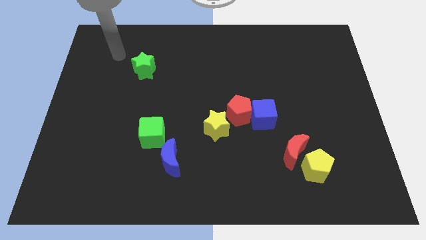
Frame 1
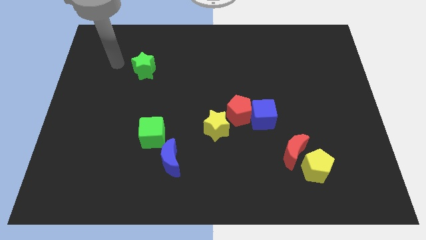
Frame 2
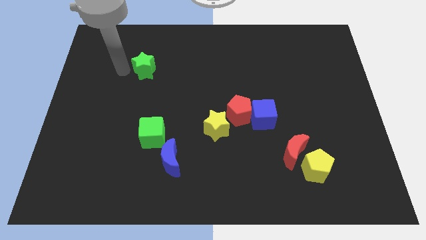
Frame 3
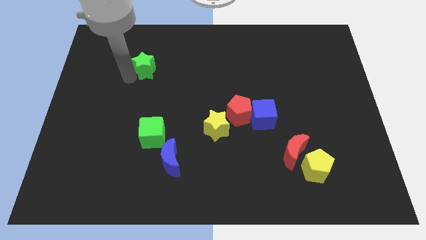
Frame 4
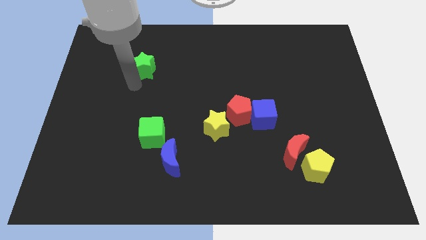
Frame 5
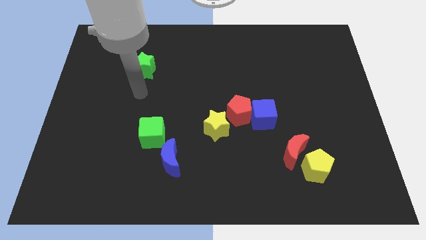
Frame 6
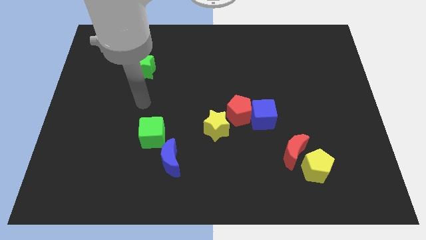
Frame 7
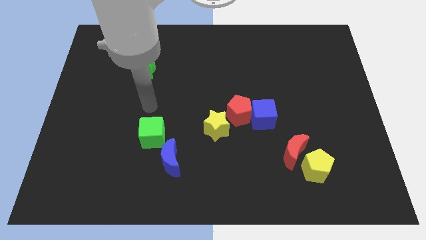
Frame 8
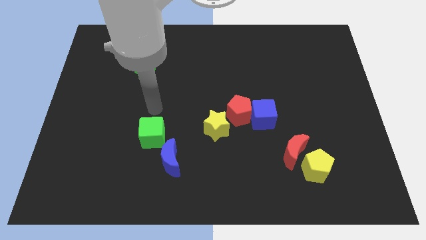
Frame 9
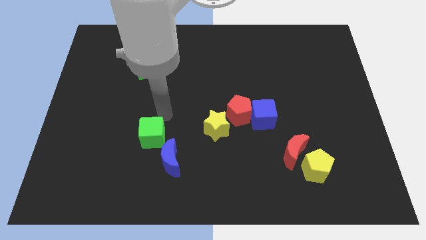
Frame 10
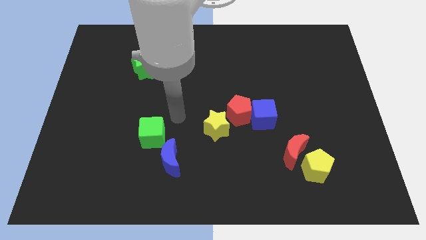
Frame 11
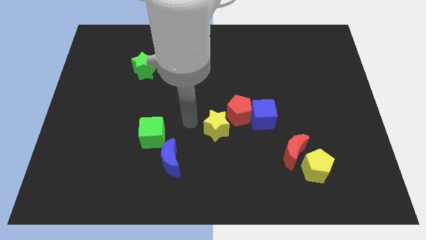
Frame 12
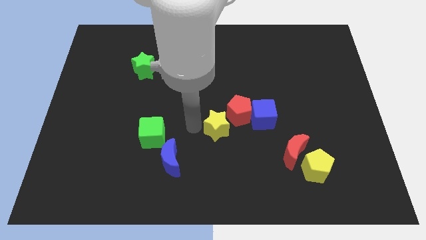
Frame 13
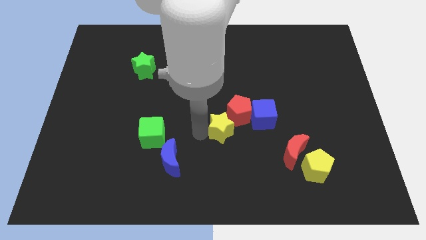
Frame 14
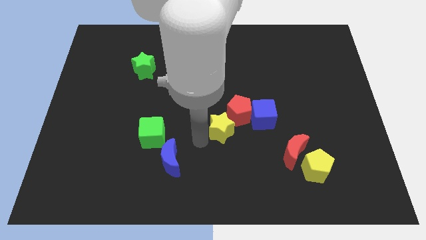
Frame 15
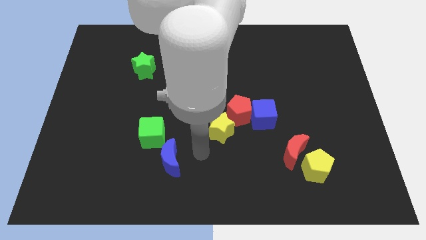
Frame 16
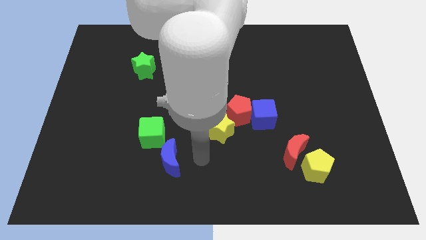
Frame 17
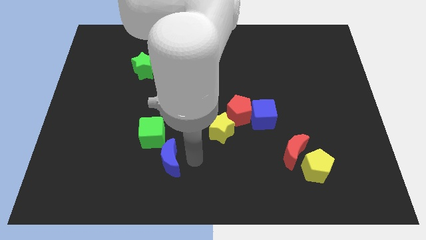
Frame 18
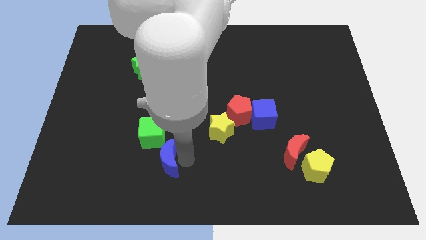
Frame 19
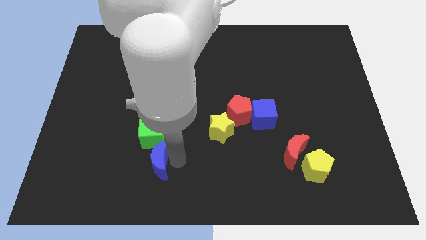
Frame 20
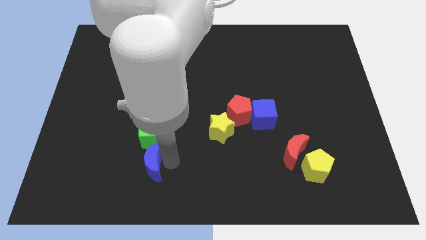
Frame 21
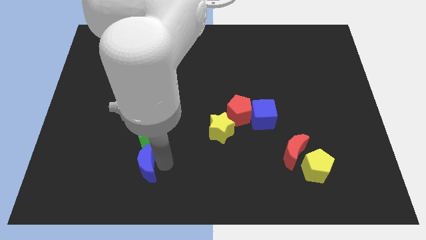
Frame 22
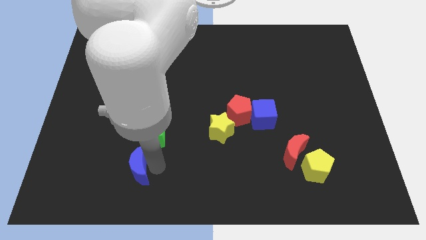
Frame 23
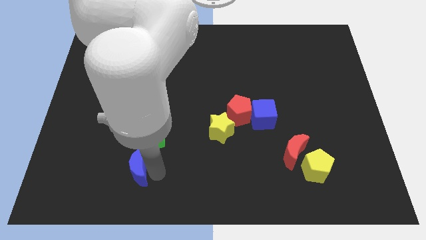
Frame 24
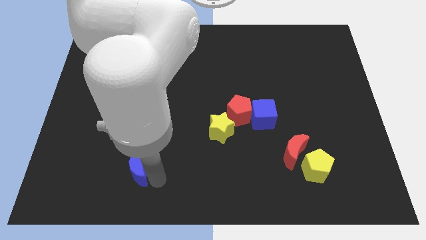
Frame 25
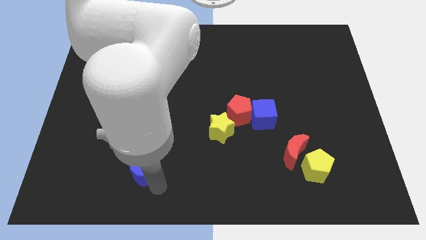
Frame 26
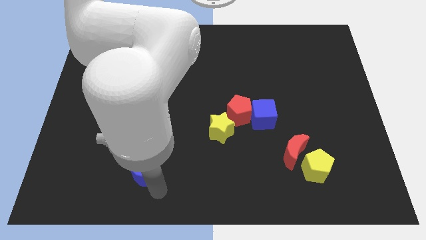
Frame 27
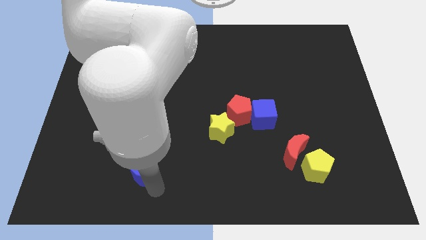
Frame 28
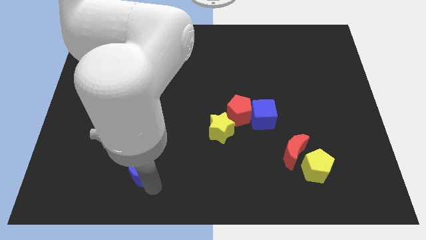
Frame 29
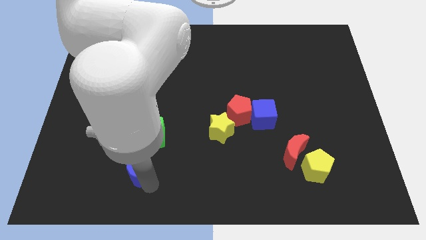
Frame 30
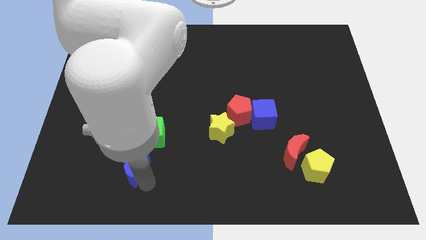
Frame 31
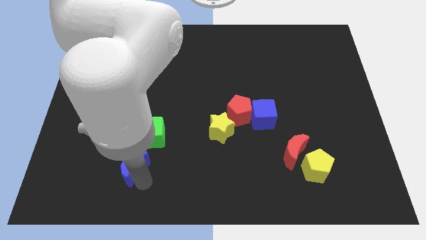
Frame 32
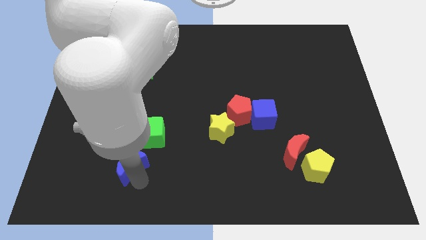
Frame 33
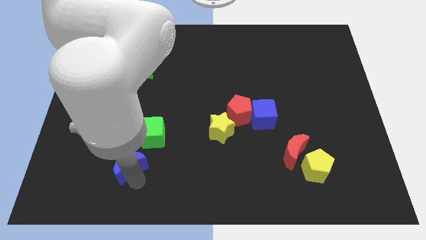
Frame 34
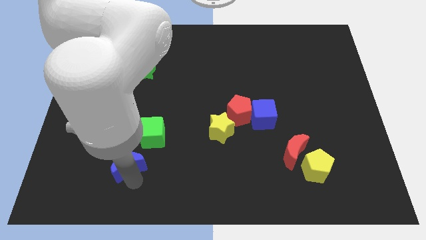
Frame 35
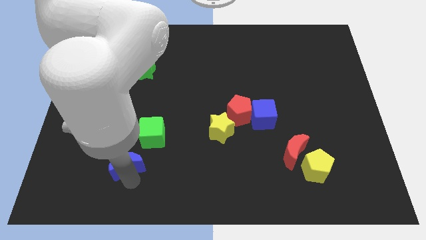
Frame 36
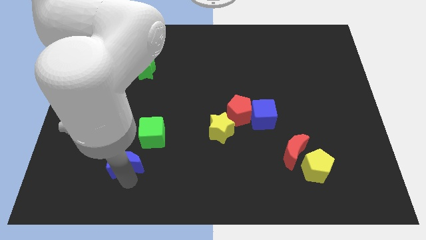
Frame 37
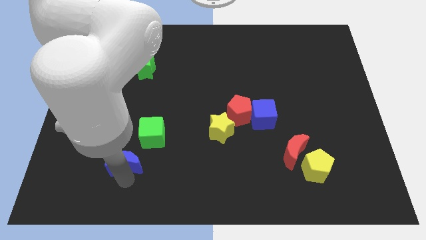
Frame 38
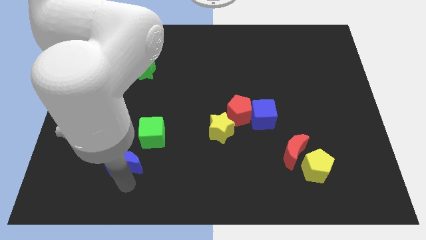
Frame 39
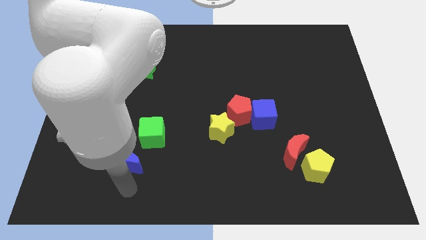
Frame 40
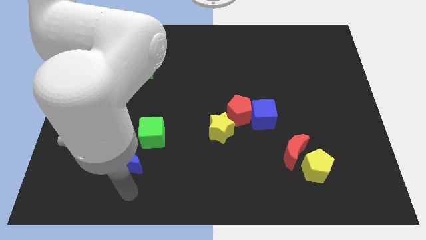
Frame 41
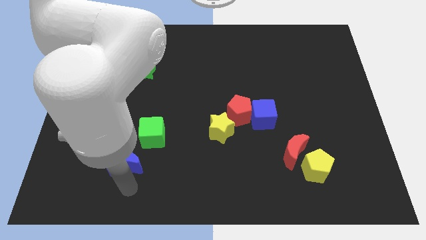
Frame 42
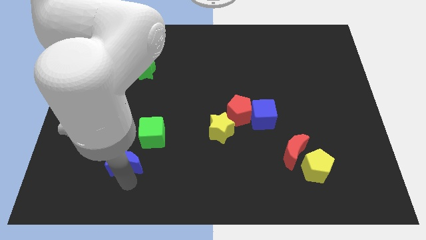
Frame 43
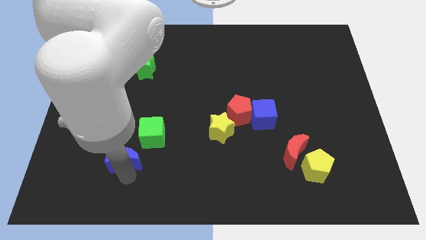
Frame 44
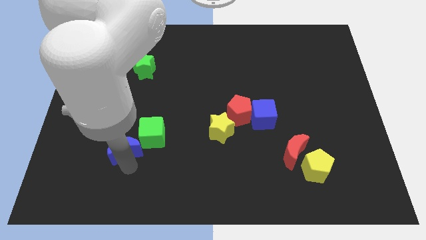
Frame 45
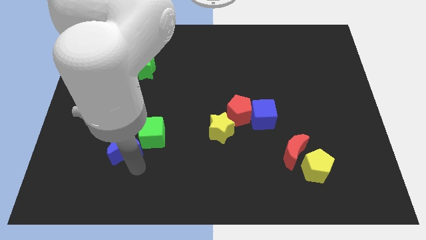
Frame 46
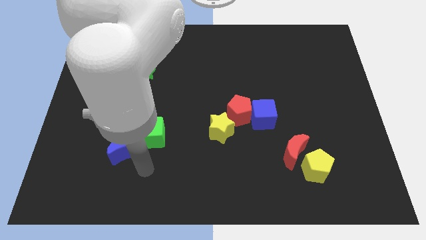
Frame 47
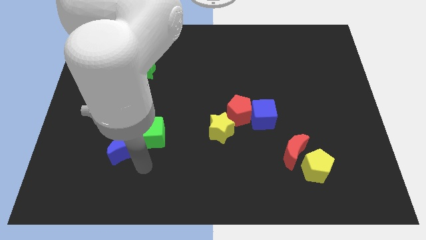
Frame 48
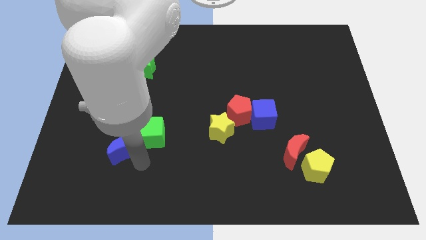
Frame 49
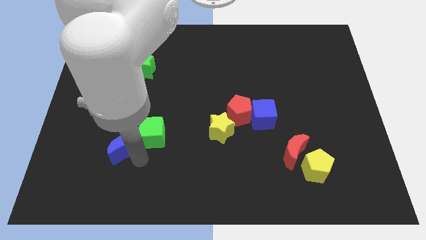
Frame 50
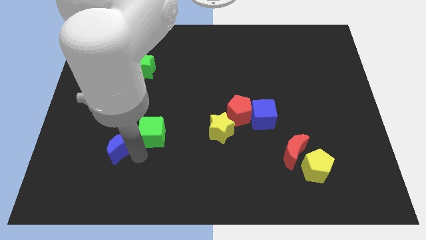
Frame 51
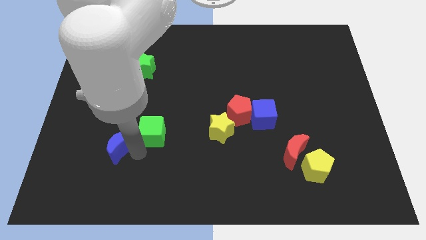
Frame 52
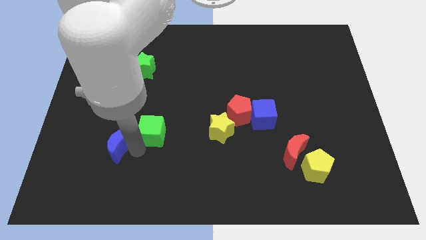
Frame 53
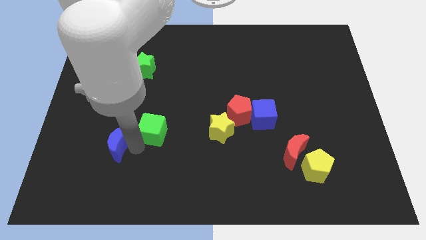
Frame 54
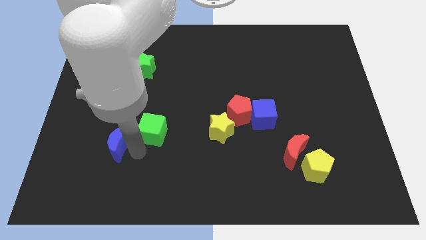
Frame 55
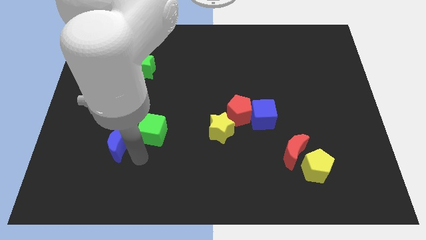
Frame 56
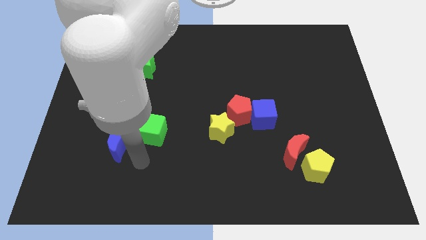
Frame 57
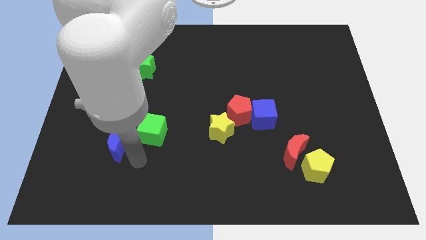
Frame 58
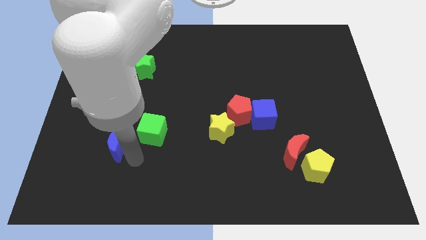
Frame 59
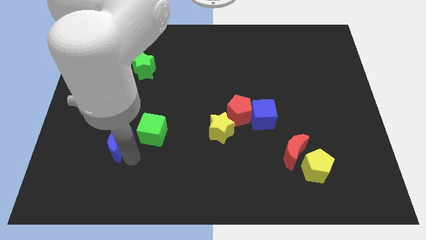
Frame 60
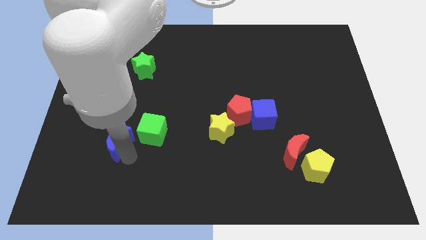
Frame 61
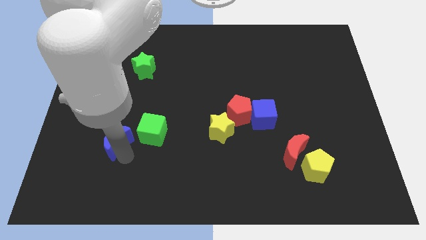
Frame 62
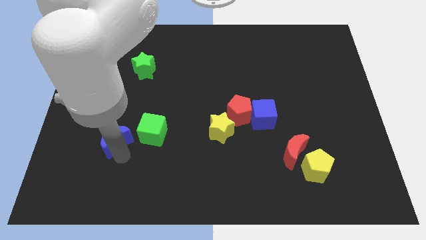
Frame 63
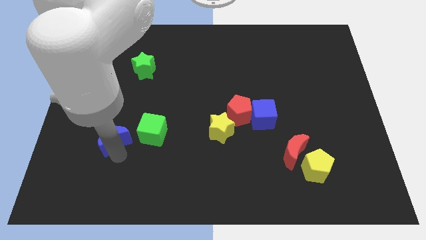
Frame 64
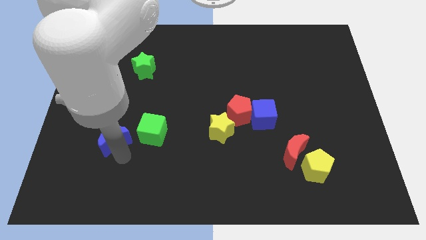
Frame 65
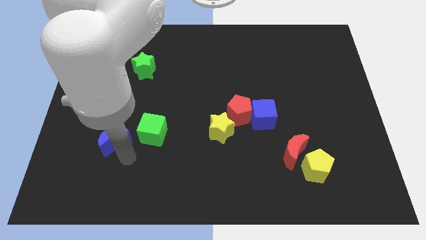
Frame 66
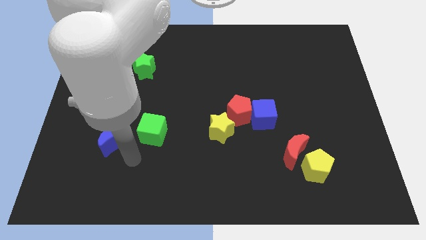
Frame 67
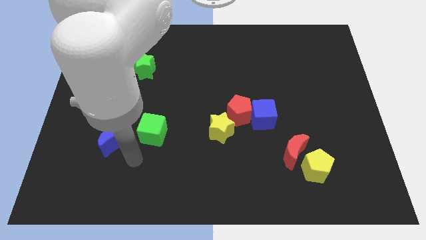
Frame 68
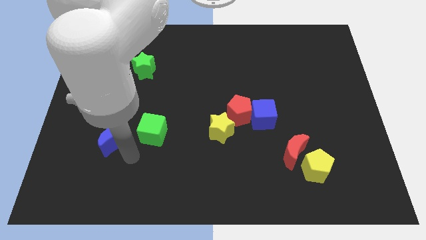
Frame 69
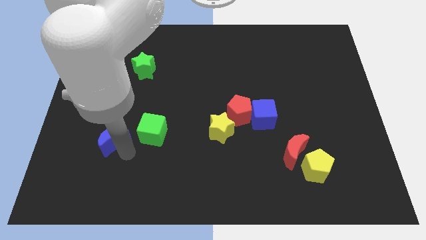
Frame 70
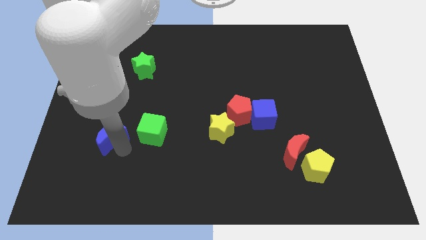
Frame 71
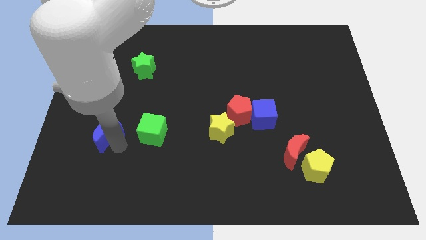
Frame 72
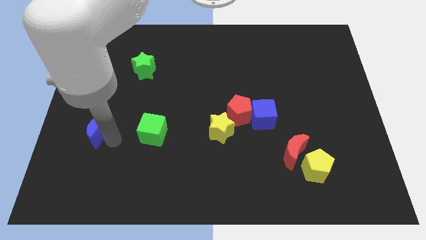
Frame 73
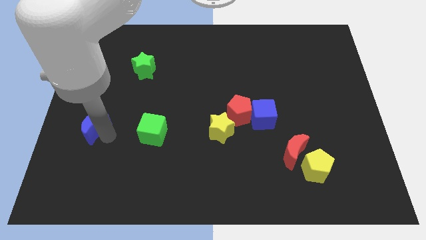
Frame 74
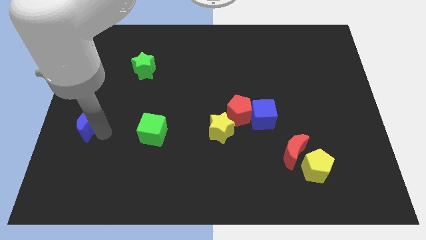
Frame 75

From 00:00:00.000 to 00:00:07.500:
slide the blue moon to the left side of the board
